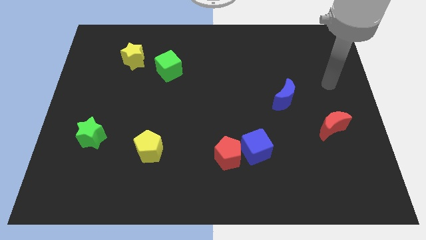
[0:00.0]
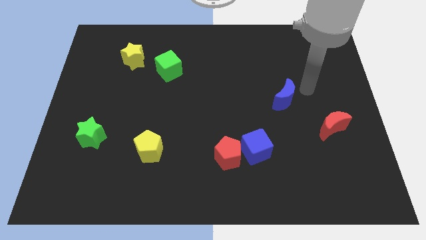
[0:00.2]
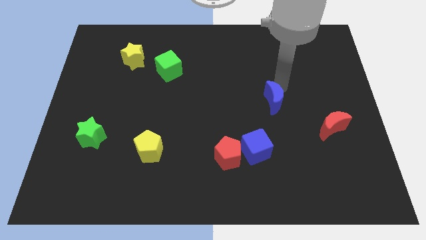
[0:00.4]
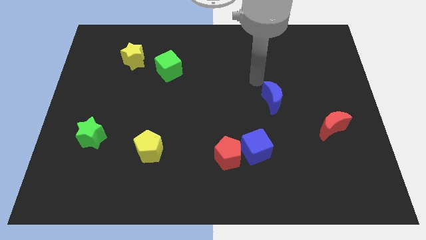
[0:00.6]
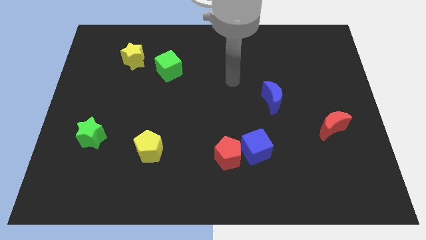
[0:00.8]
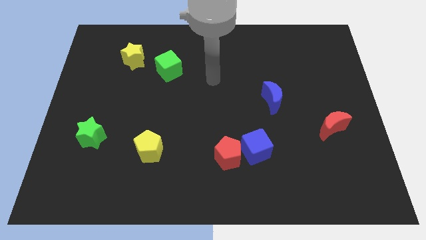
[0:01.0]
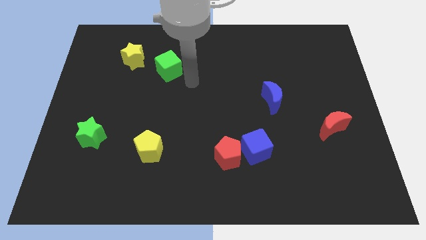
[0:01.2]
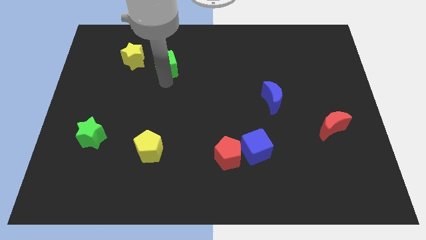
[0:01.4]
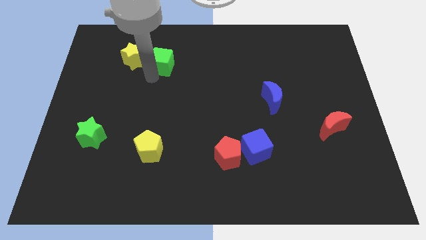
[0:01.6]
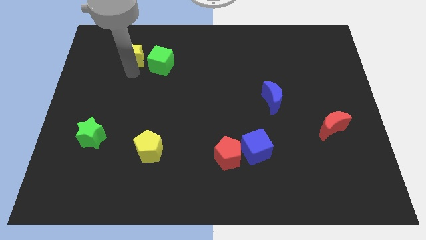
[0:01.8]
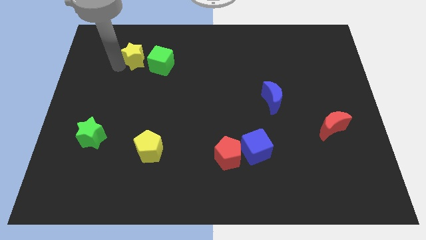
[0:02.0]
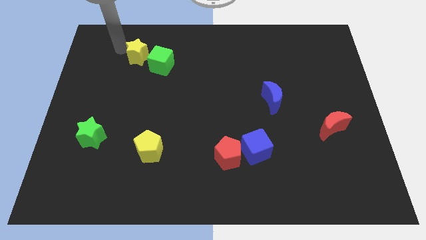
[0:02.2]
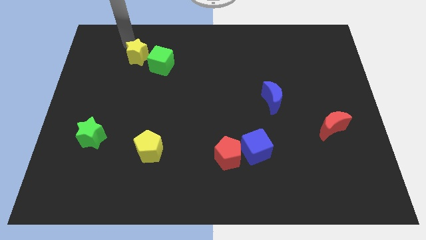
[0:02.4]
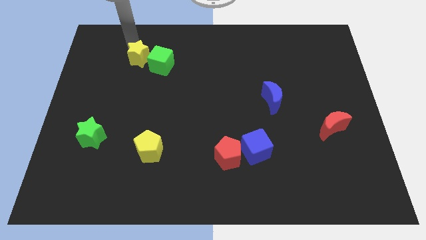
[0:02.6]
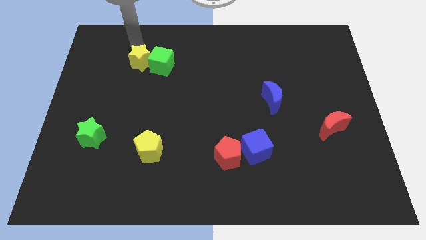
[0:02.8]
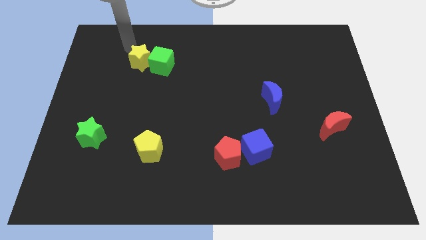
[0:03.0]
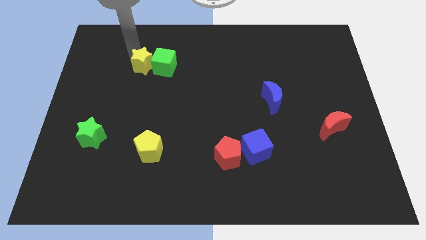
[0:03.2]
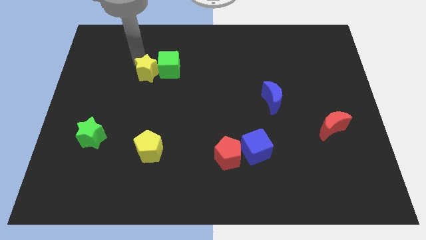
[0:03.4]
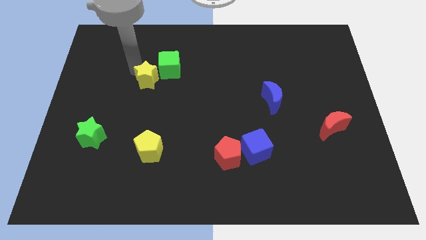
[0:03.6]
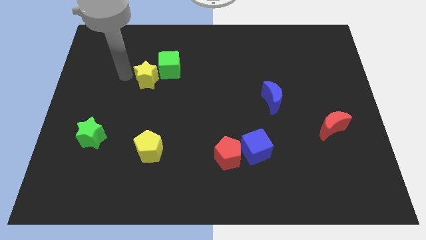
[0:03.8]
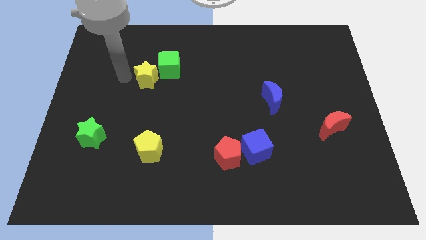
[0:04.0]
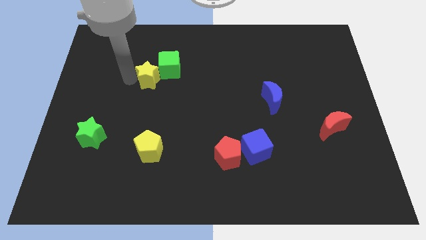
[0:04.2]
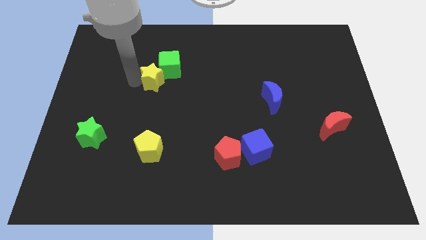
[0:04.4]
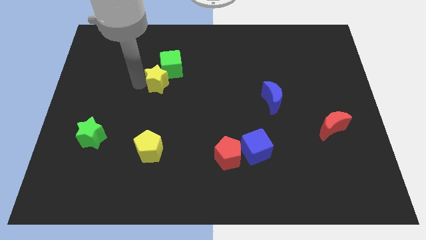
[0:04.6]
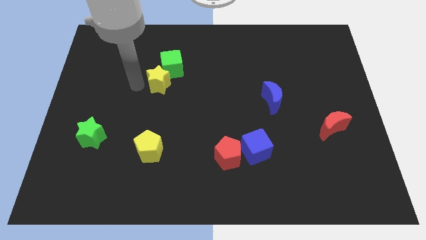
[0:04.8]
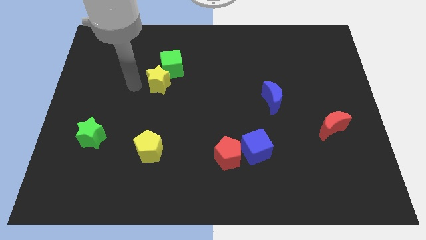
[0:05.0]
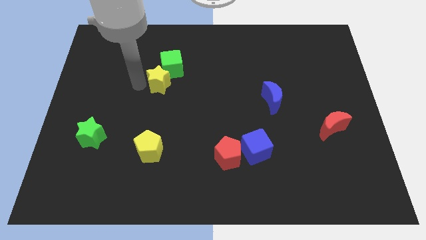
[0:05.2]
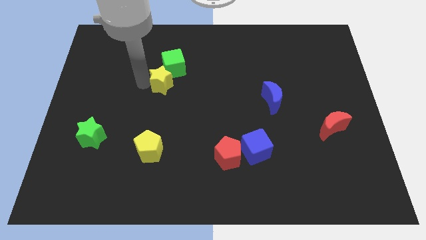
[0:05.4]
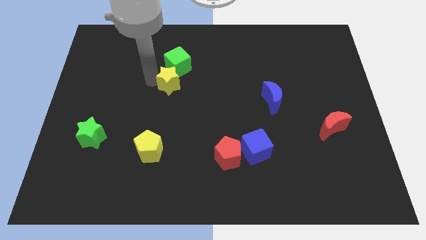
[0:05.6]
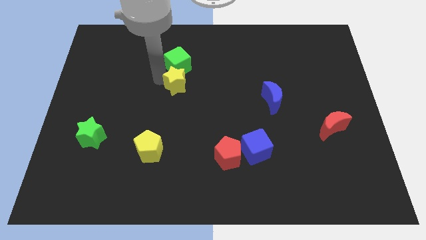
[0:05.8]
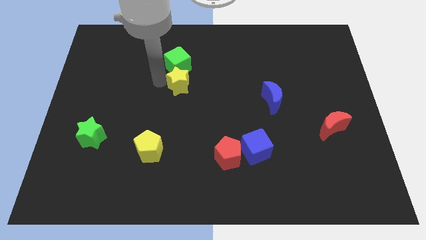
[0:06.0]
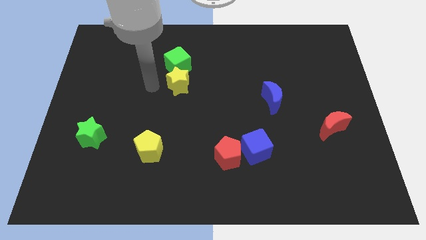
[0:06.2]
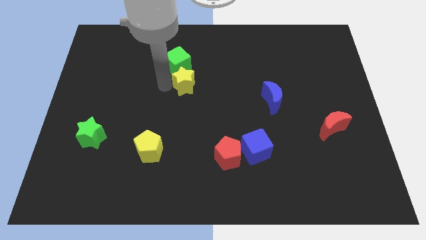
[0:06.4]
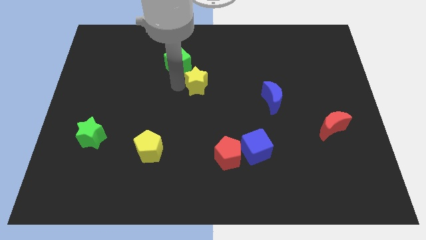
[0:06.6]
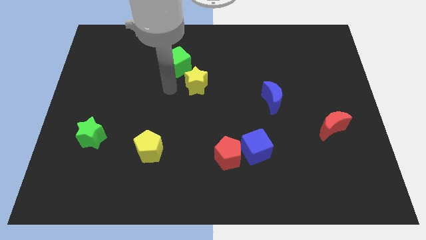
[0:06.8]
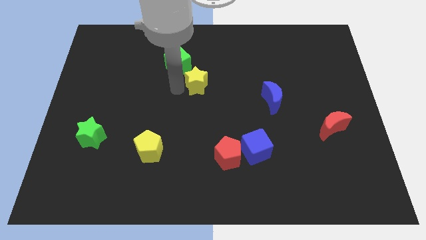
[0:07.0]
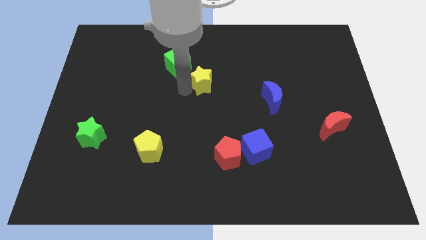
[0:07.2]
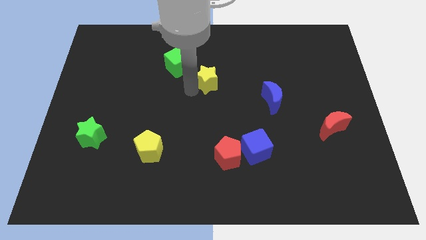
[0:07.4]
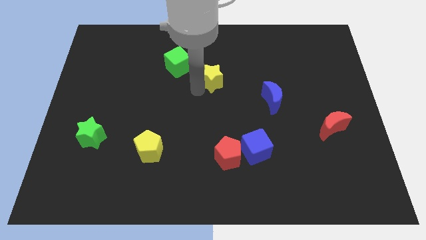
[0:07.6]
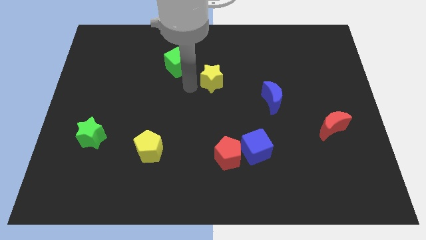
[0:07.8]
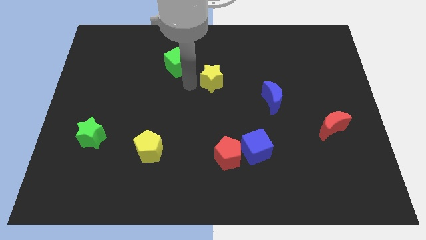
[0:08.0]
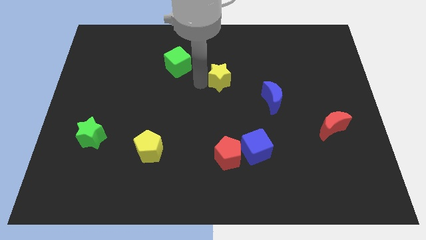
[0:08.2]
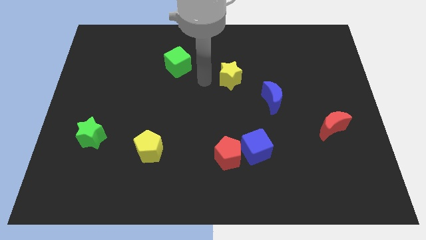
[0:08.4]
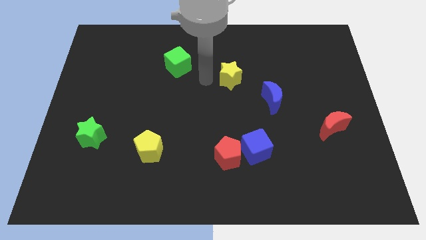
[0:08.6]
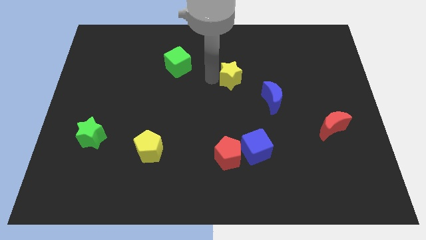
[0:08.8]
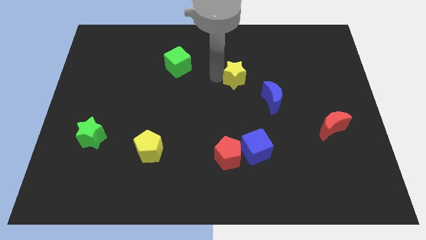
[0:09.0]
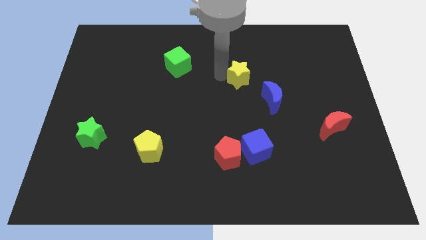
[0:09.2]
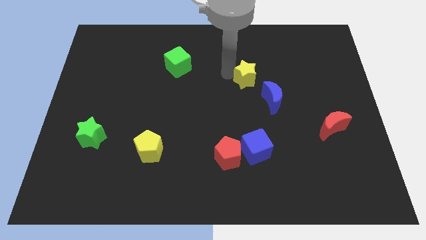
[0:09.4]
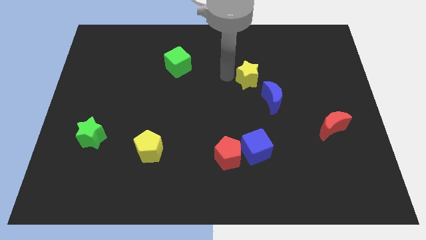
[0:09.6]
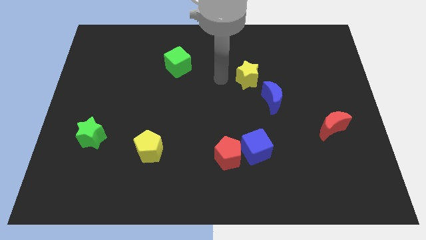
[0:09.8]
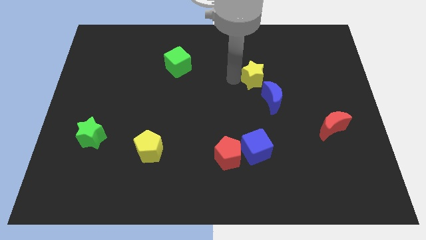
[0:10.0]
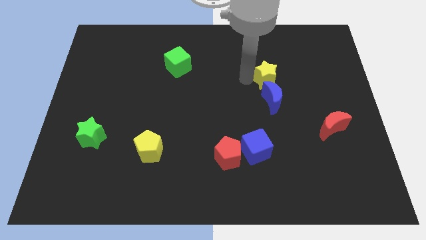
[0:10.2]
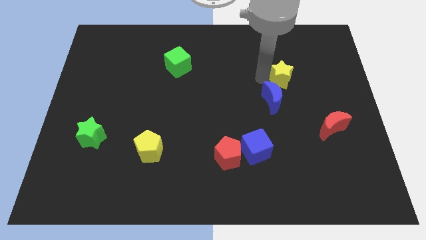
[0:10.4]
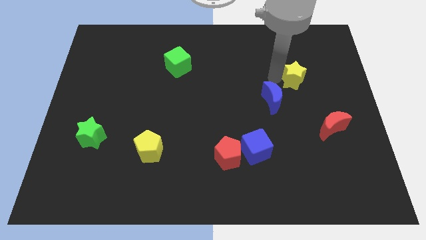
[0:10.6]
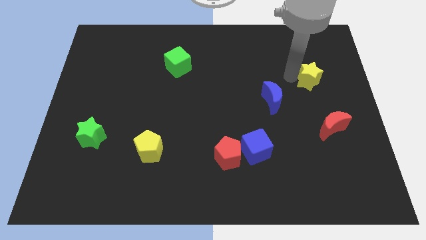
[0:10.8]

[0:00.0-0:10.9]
slide the yellow star above the red moon

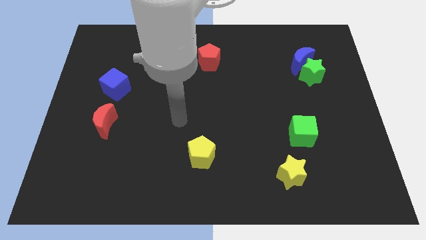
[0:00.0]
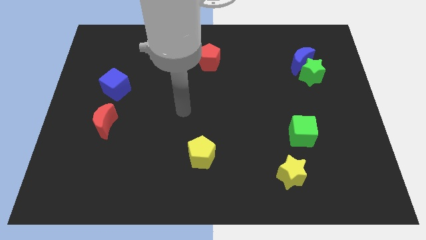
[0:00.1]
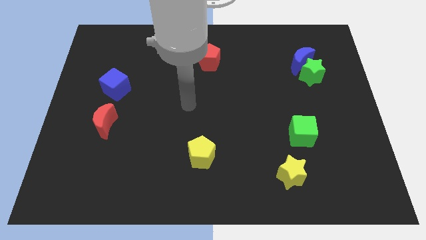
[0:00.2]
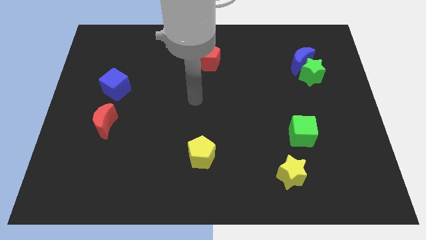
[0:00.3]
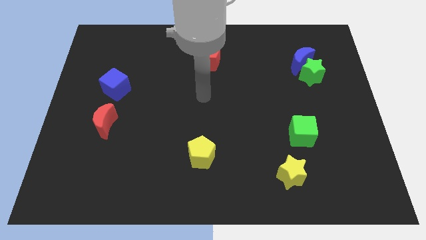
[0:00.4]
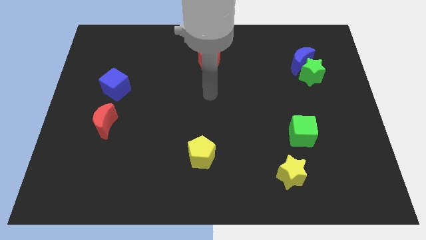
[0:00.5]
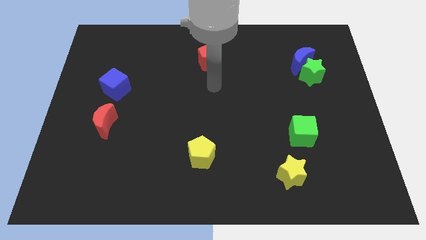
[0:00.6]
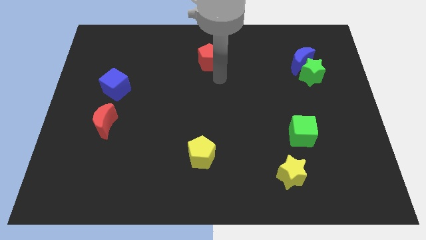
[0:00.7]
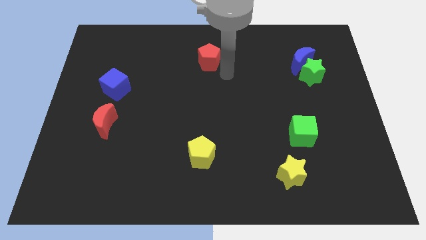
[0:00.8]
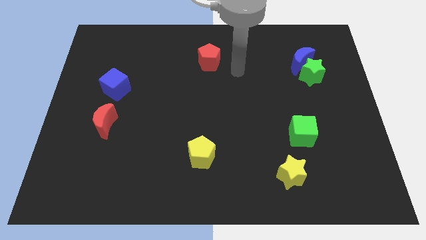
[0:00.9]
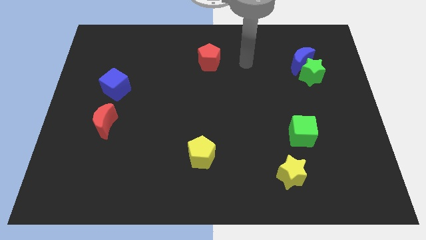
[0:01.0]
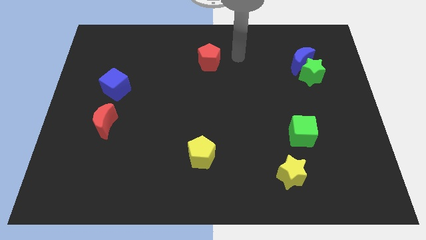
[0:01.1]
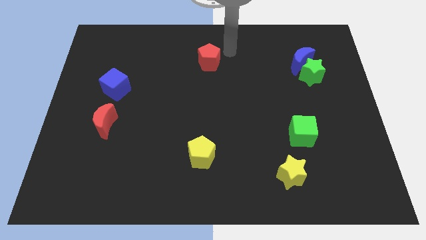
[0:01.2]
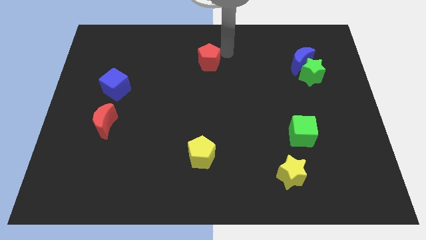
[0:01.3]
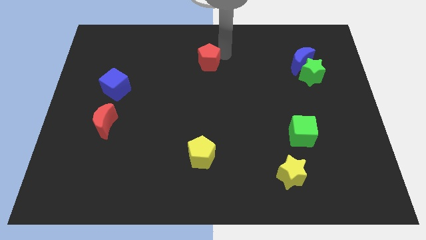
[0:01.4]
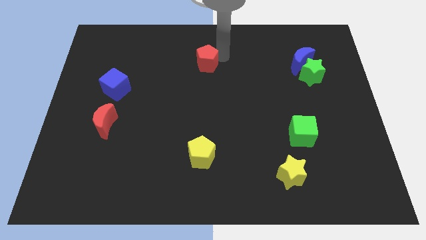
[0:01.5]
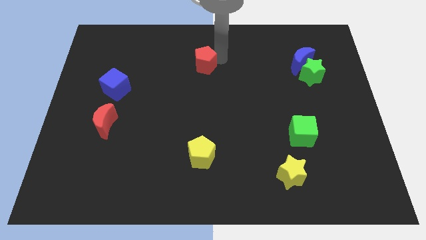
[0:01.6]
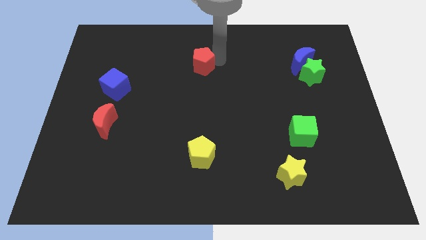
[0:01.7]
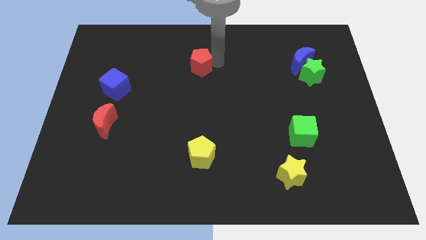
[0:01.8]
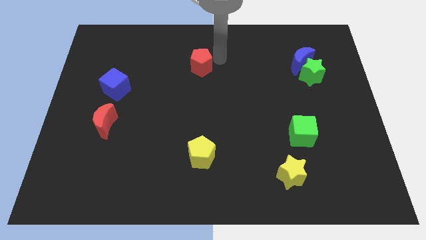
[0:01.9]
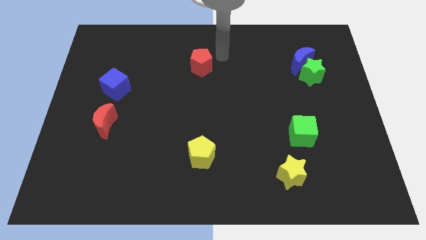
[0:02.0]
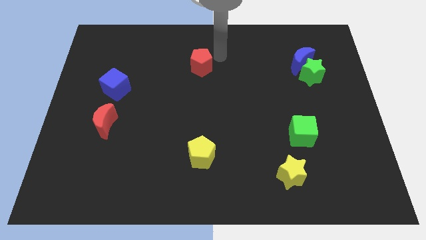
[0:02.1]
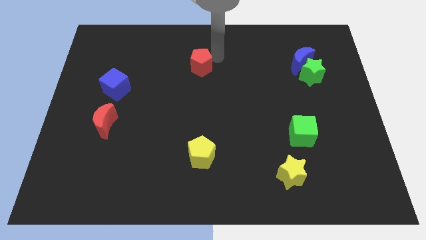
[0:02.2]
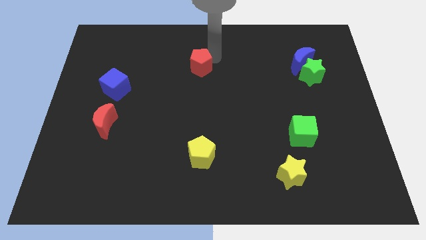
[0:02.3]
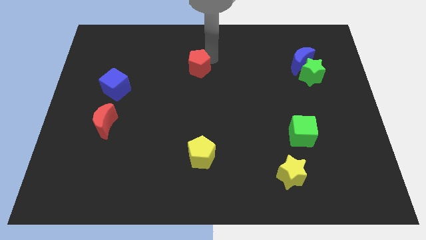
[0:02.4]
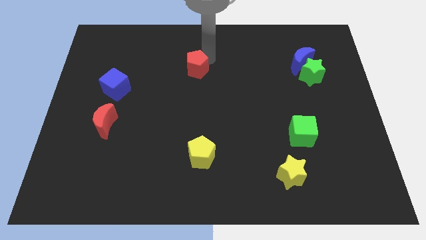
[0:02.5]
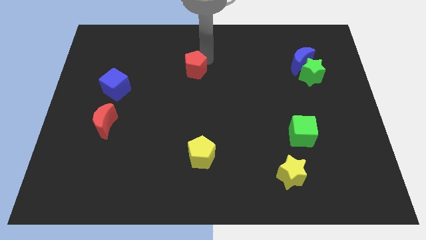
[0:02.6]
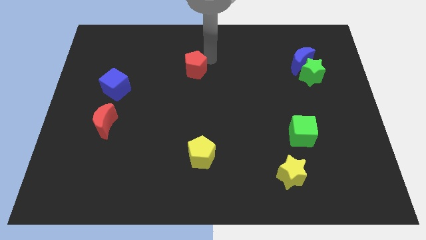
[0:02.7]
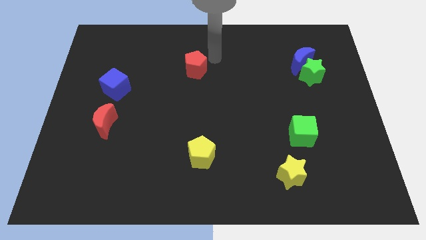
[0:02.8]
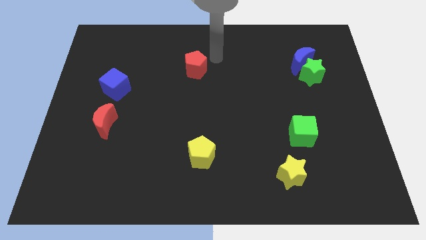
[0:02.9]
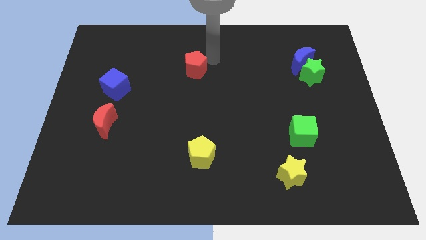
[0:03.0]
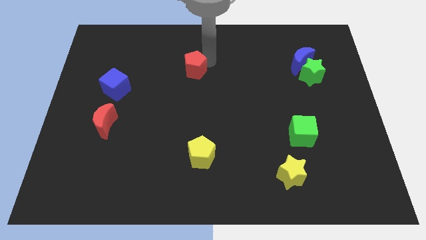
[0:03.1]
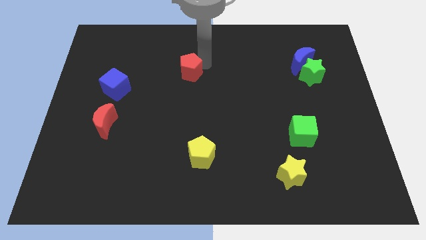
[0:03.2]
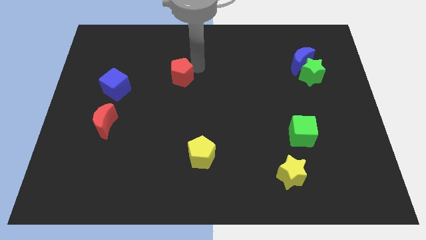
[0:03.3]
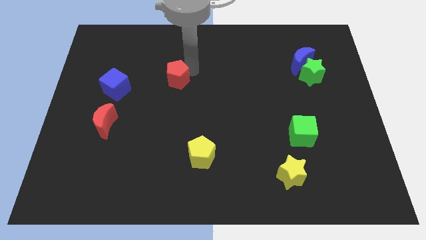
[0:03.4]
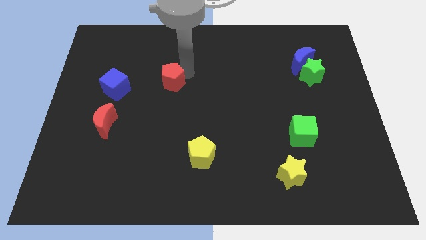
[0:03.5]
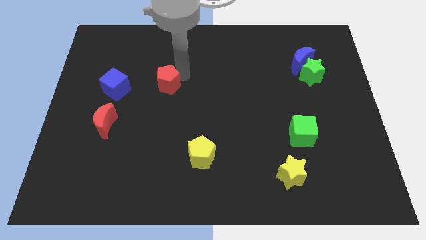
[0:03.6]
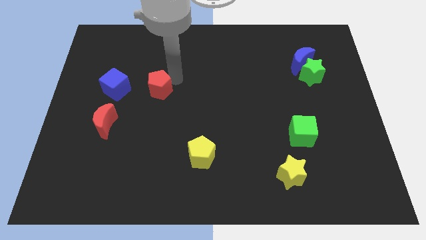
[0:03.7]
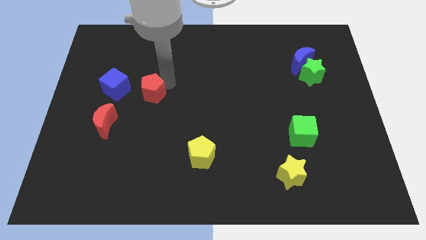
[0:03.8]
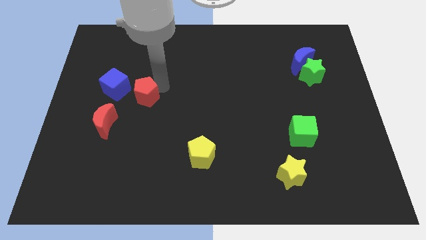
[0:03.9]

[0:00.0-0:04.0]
push the red pentagon to the bottom right side of the blue cube
